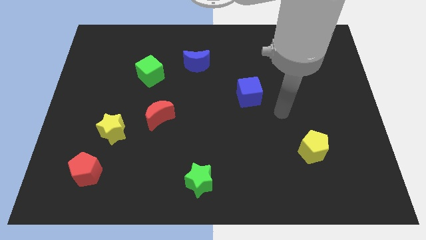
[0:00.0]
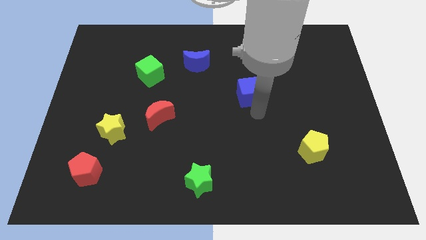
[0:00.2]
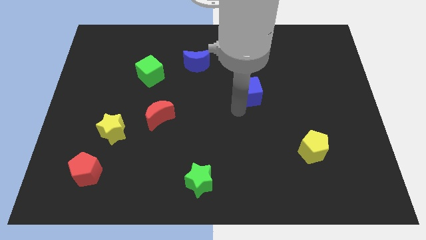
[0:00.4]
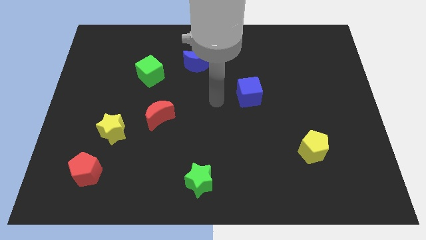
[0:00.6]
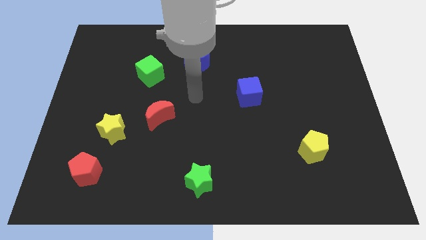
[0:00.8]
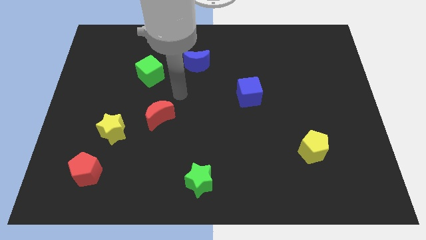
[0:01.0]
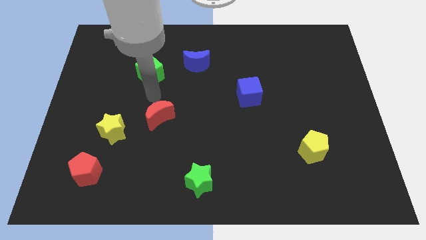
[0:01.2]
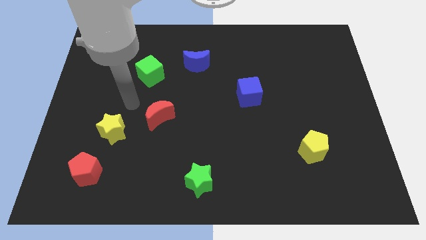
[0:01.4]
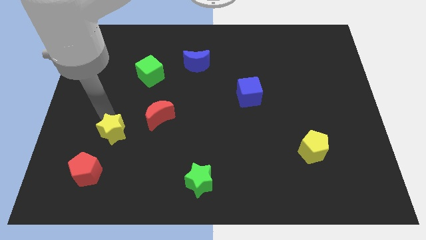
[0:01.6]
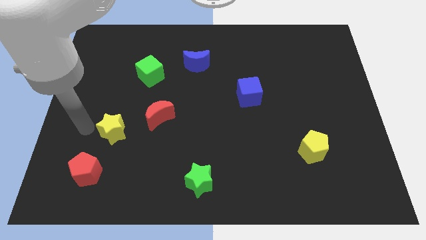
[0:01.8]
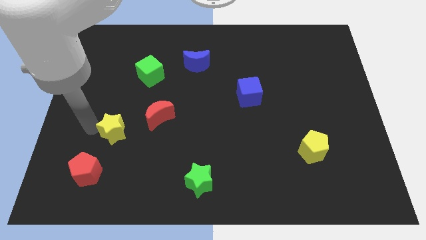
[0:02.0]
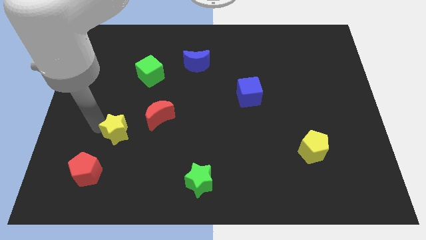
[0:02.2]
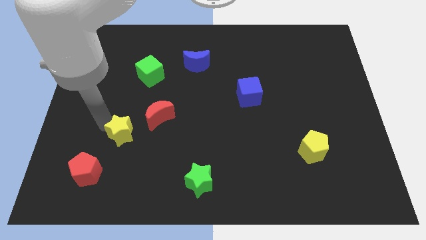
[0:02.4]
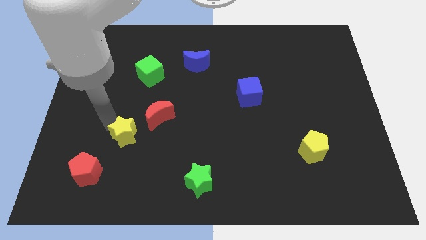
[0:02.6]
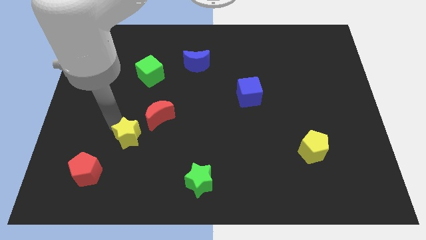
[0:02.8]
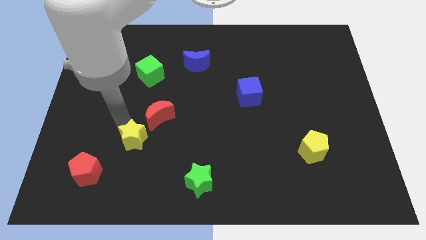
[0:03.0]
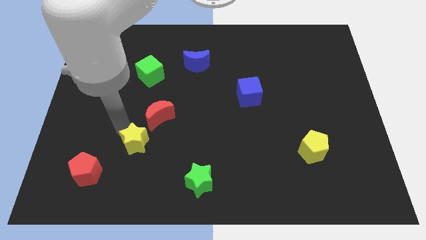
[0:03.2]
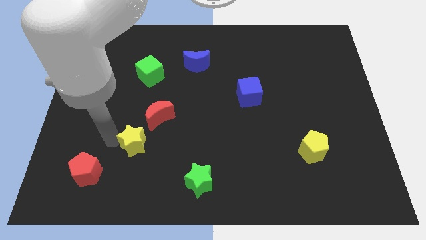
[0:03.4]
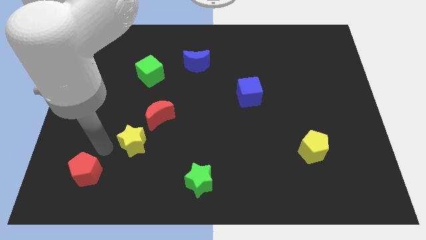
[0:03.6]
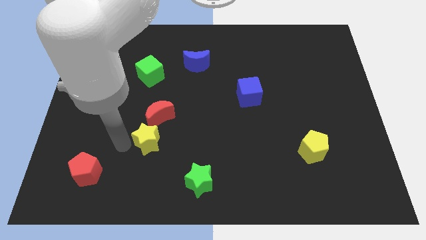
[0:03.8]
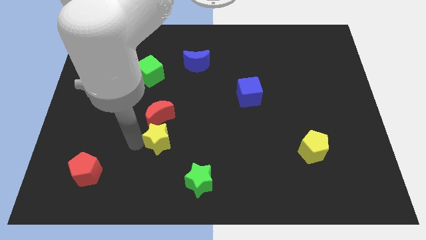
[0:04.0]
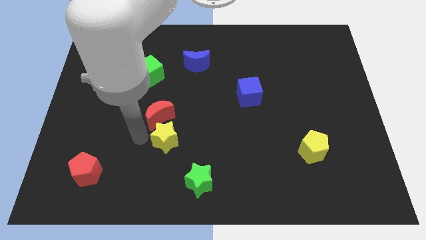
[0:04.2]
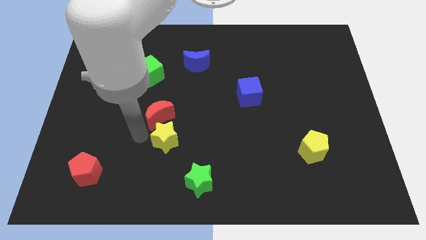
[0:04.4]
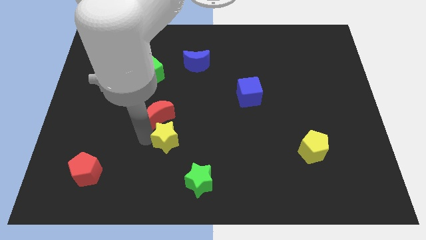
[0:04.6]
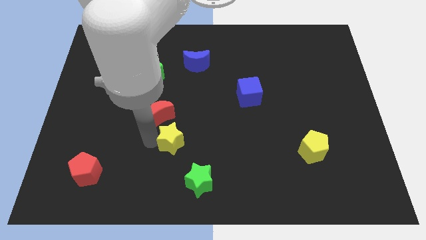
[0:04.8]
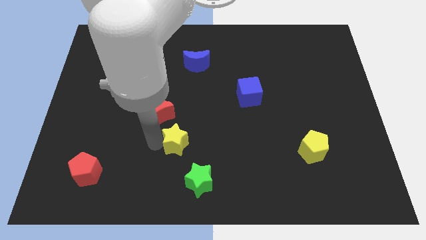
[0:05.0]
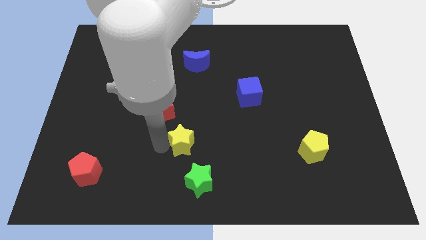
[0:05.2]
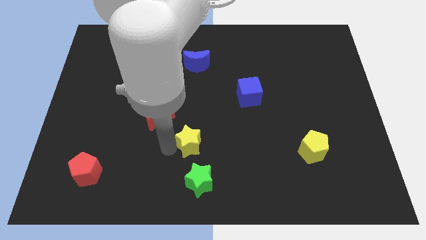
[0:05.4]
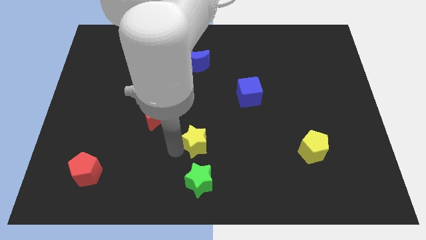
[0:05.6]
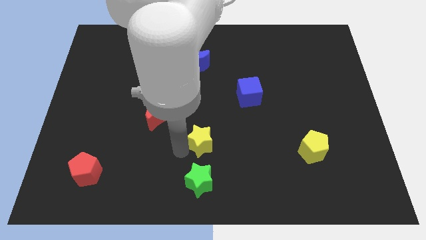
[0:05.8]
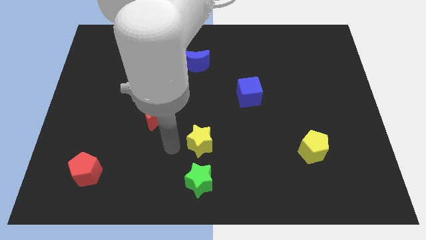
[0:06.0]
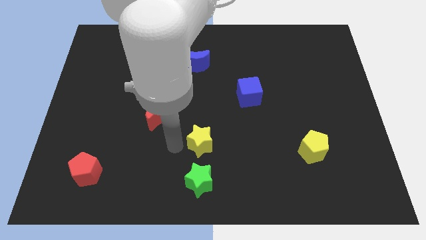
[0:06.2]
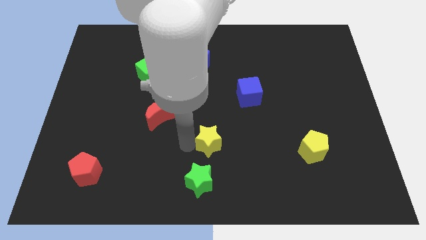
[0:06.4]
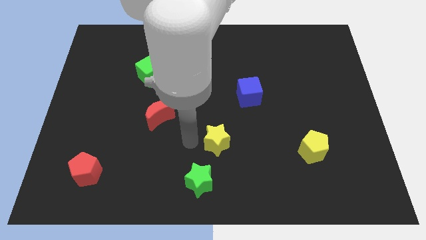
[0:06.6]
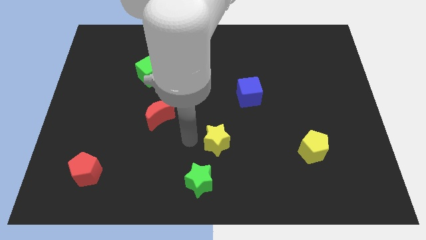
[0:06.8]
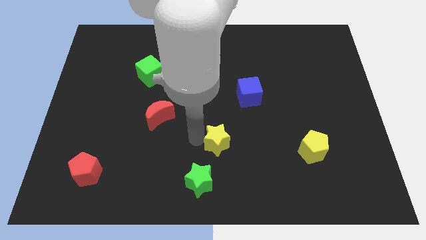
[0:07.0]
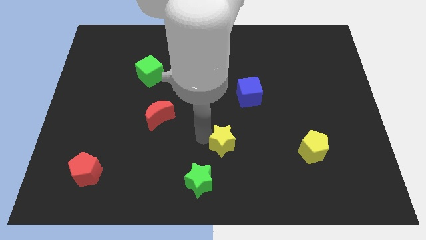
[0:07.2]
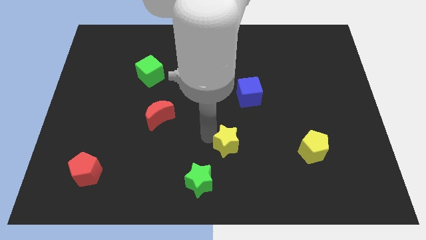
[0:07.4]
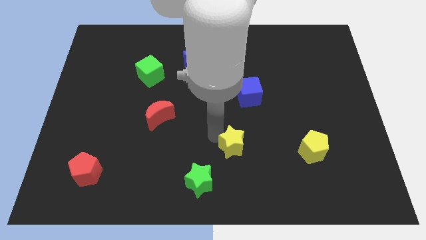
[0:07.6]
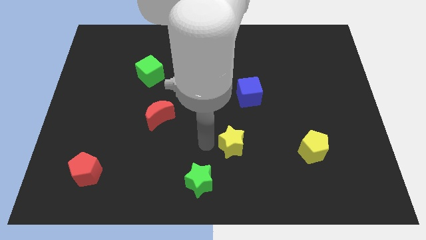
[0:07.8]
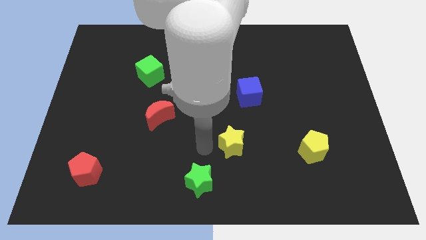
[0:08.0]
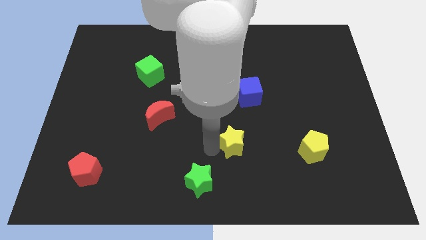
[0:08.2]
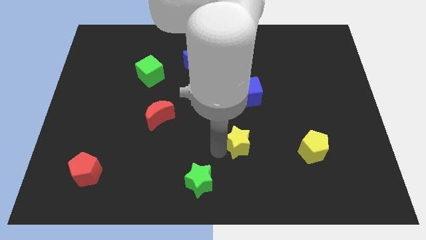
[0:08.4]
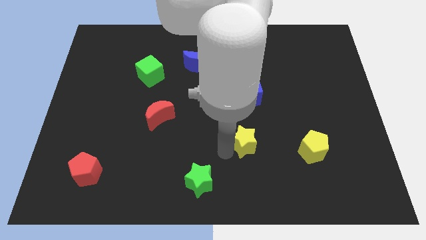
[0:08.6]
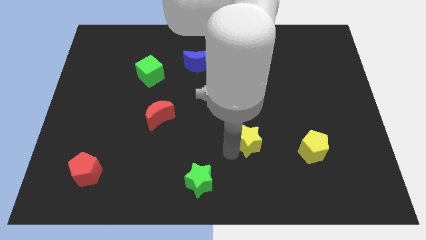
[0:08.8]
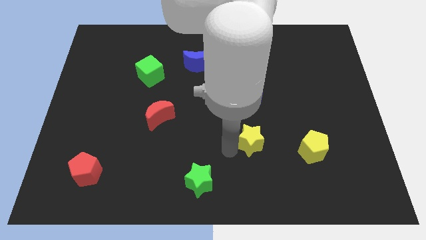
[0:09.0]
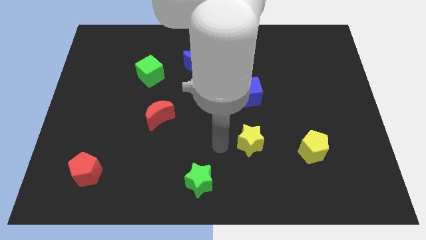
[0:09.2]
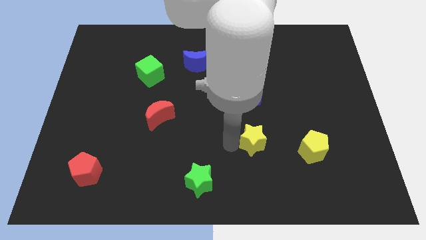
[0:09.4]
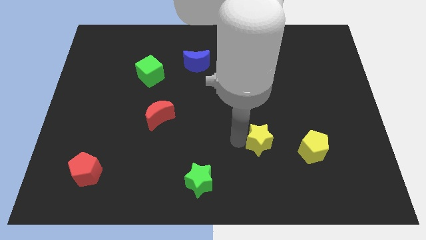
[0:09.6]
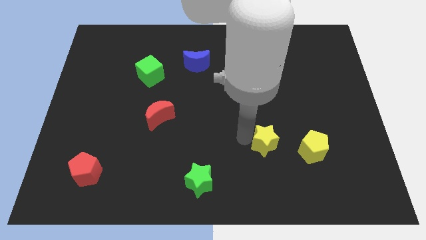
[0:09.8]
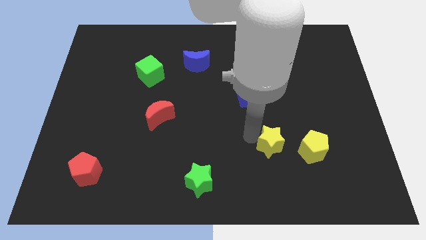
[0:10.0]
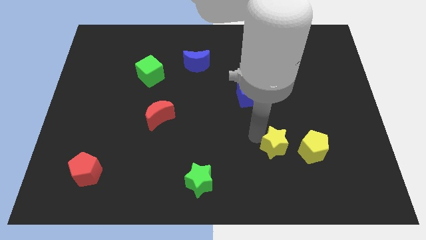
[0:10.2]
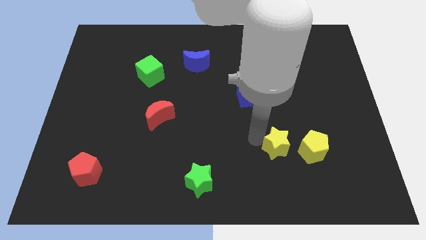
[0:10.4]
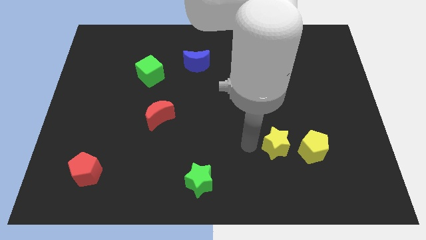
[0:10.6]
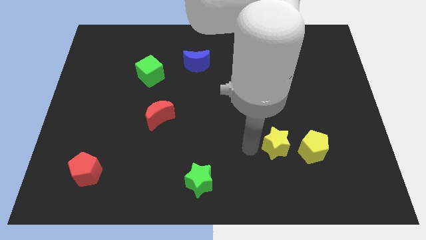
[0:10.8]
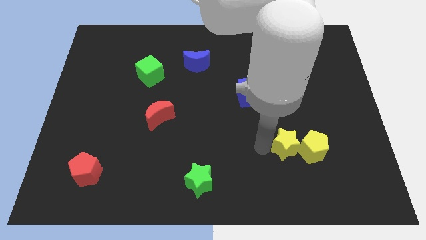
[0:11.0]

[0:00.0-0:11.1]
push the yellow star towards the yellow pentagon

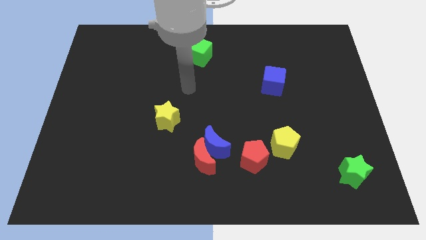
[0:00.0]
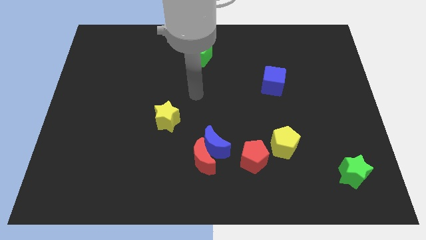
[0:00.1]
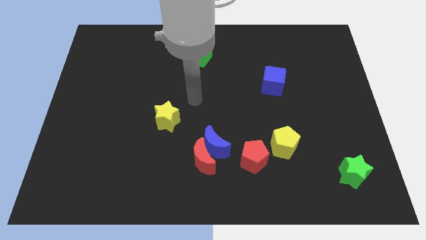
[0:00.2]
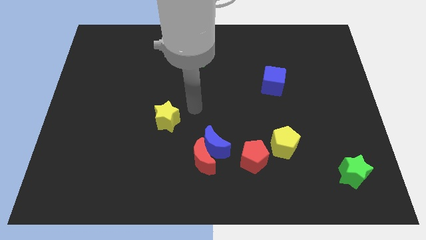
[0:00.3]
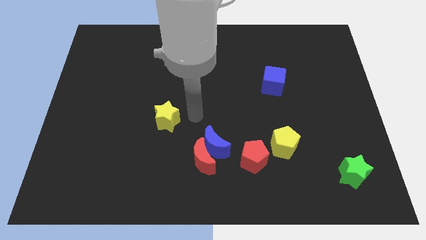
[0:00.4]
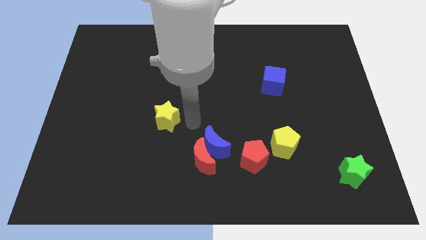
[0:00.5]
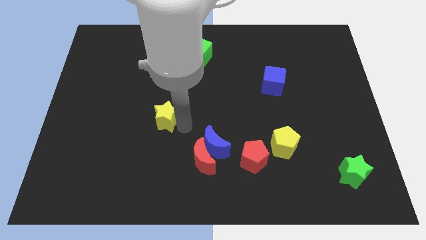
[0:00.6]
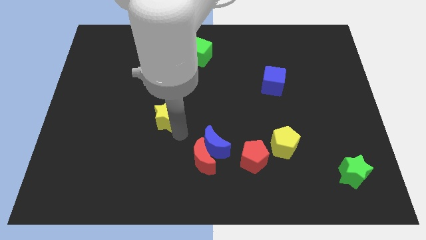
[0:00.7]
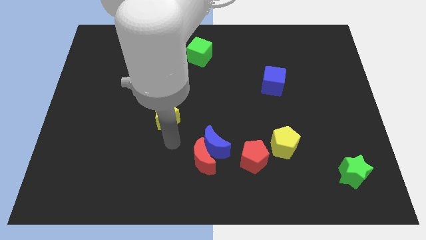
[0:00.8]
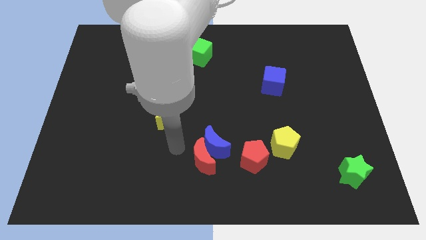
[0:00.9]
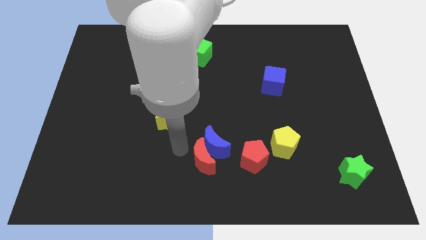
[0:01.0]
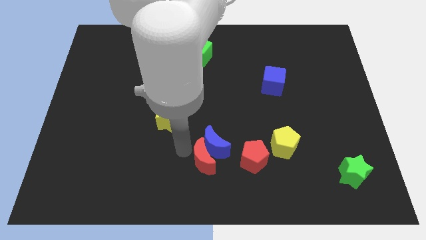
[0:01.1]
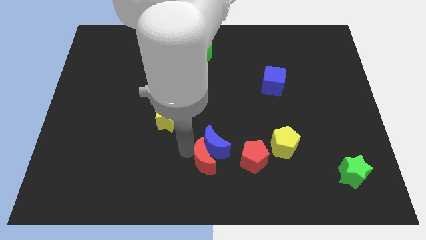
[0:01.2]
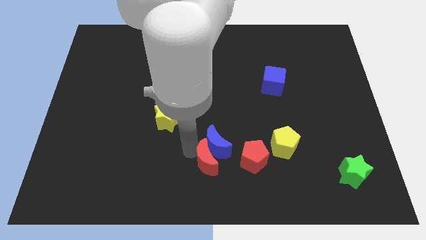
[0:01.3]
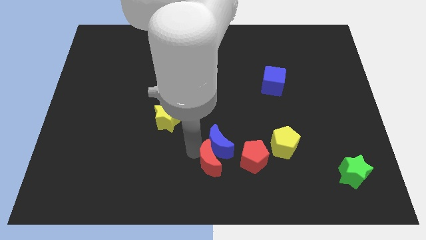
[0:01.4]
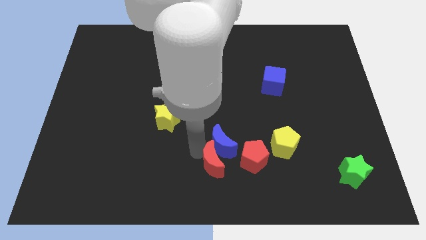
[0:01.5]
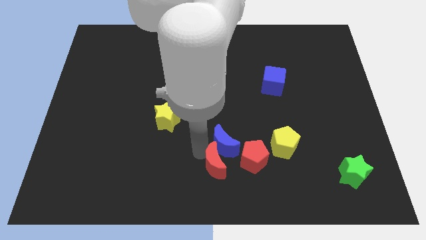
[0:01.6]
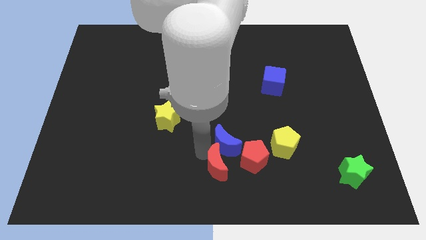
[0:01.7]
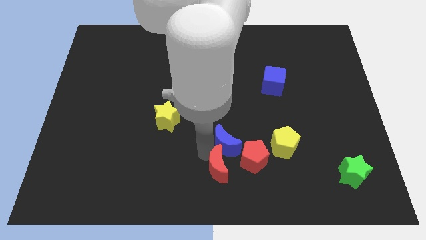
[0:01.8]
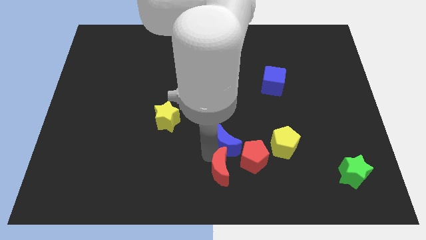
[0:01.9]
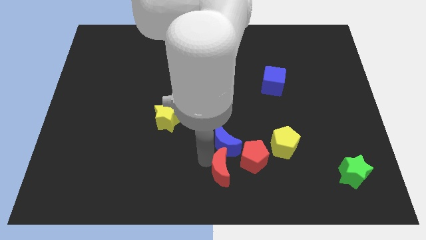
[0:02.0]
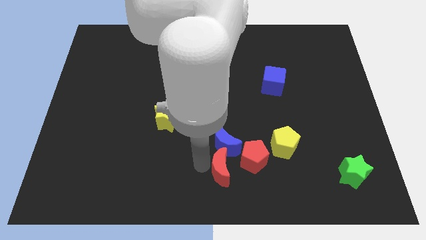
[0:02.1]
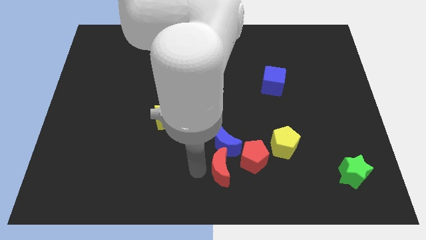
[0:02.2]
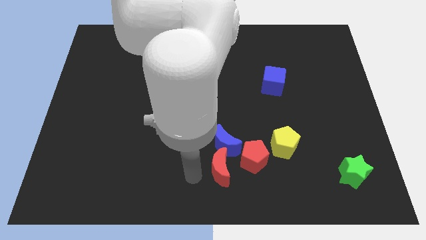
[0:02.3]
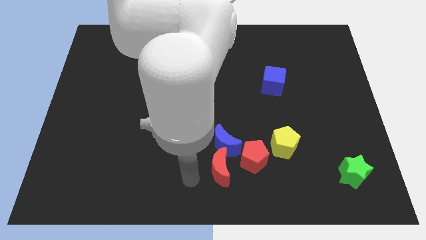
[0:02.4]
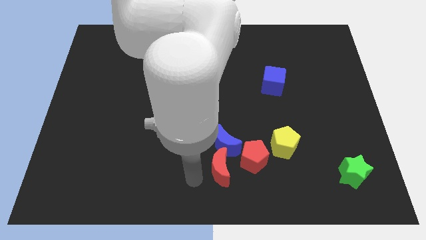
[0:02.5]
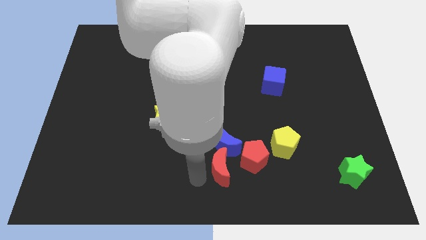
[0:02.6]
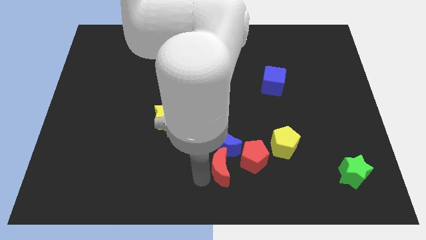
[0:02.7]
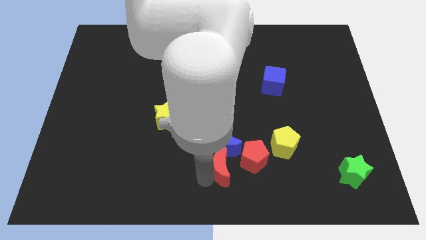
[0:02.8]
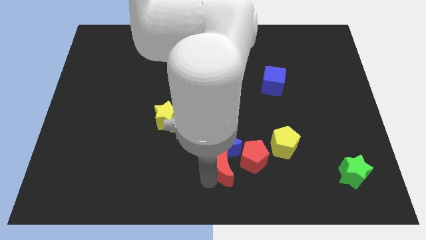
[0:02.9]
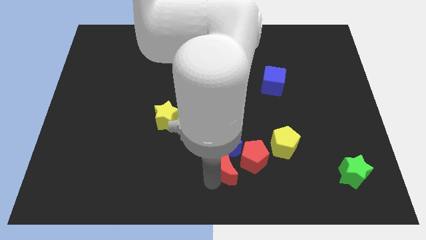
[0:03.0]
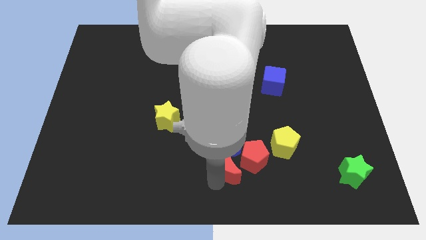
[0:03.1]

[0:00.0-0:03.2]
push the red moon towards the red pentagon
